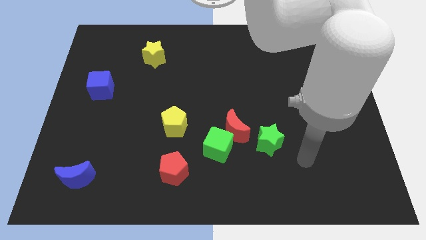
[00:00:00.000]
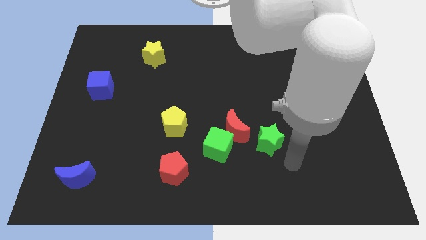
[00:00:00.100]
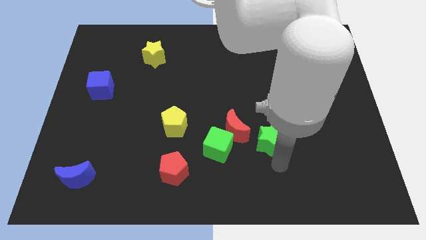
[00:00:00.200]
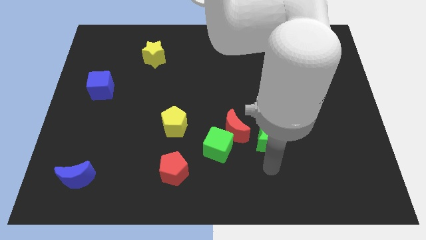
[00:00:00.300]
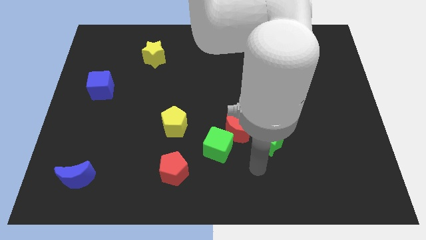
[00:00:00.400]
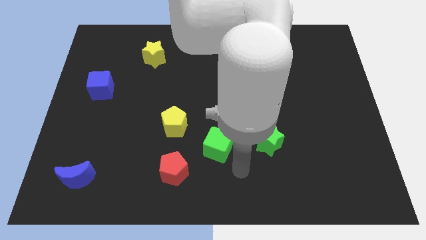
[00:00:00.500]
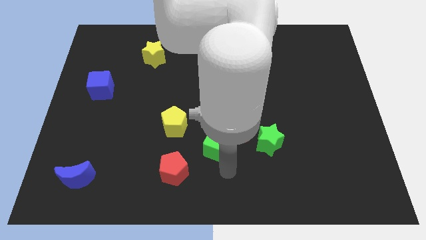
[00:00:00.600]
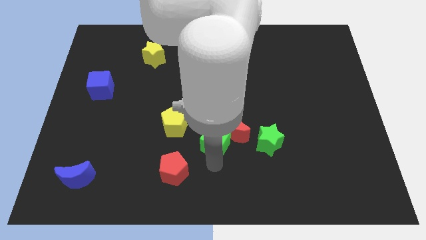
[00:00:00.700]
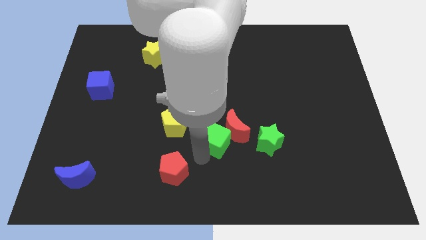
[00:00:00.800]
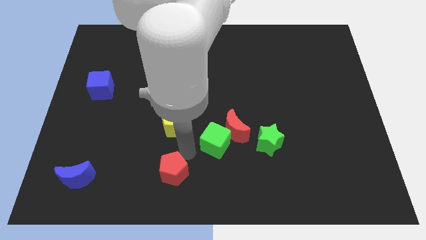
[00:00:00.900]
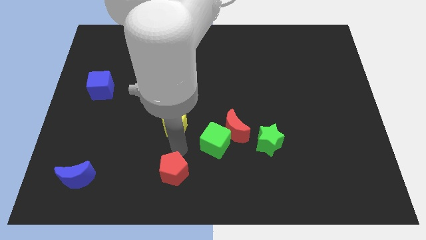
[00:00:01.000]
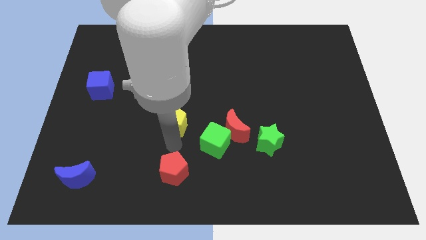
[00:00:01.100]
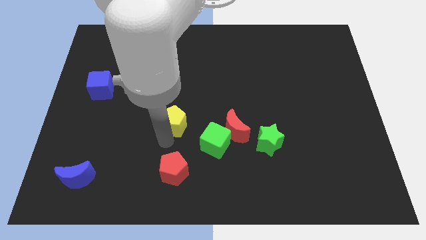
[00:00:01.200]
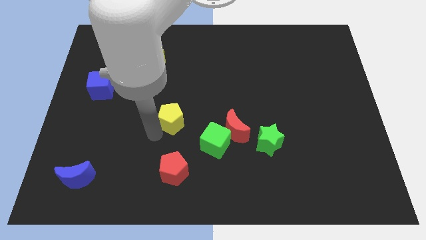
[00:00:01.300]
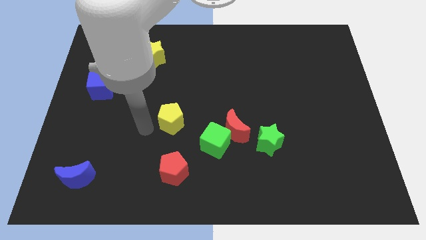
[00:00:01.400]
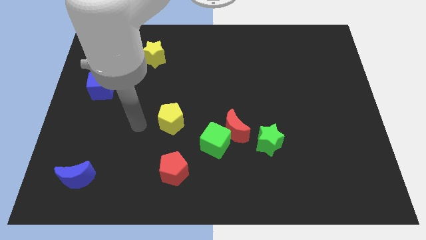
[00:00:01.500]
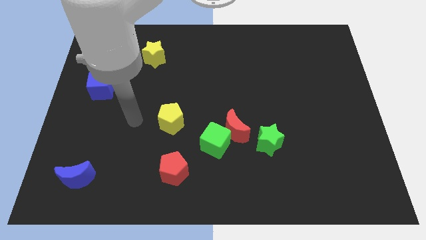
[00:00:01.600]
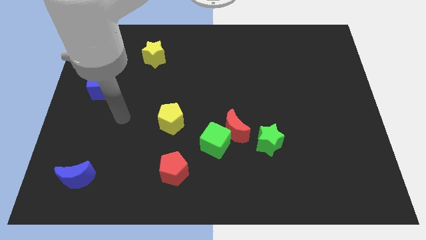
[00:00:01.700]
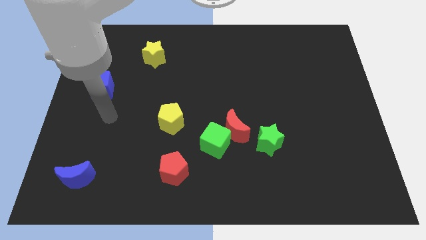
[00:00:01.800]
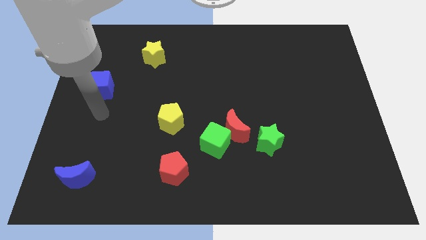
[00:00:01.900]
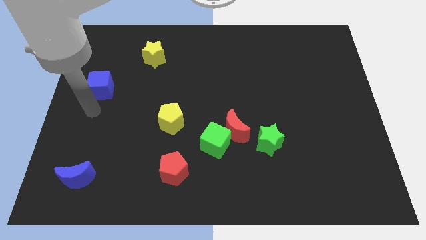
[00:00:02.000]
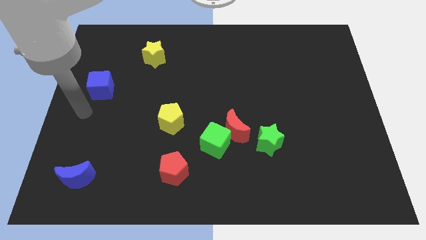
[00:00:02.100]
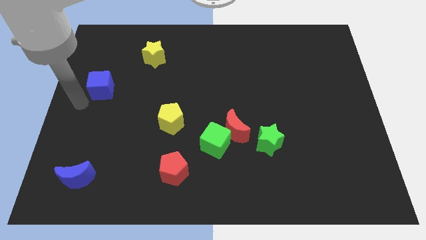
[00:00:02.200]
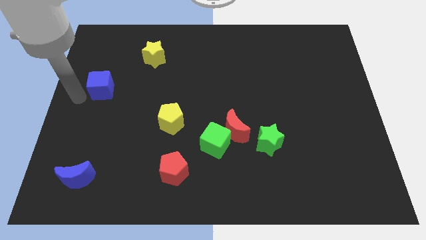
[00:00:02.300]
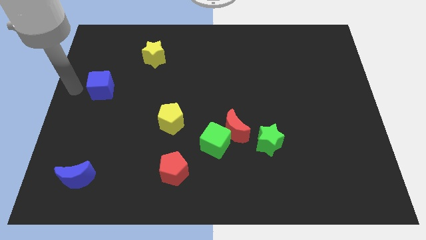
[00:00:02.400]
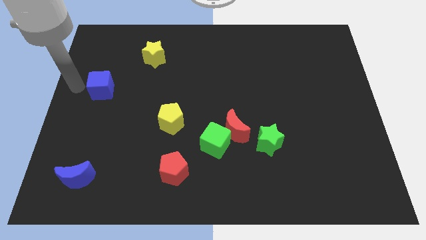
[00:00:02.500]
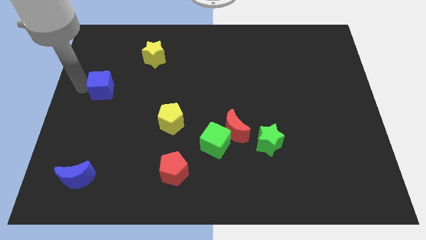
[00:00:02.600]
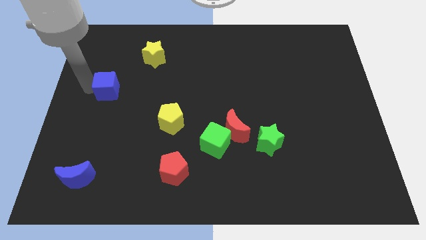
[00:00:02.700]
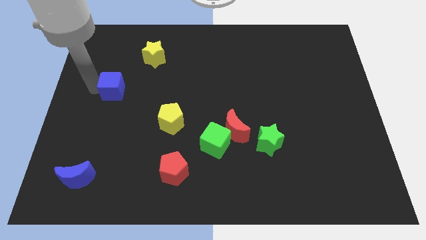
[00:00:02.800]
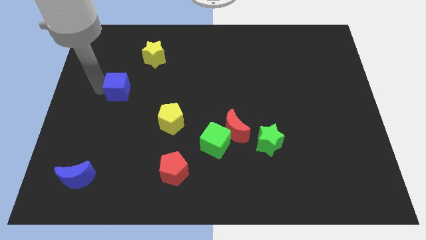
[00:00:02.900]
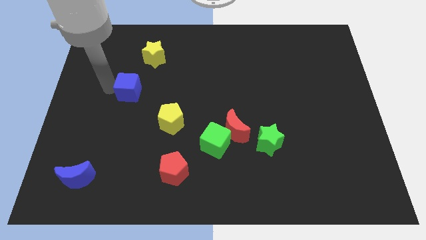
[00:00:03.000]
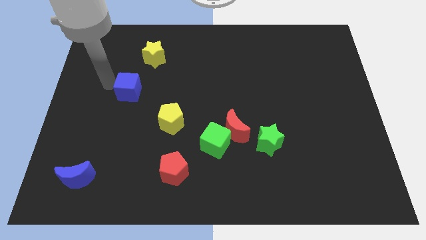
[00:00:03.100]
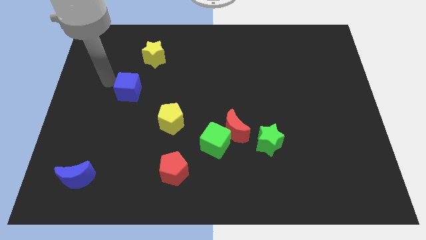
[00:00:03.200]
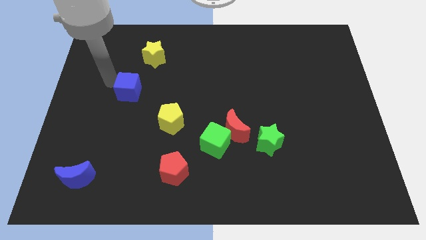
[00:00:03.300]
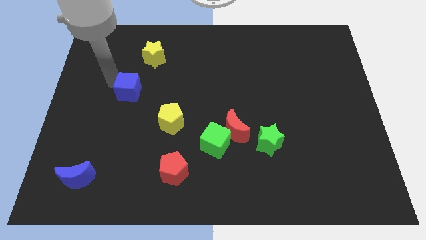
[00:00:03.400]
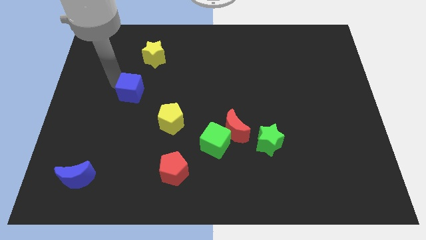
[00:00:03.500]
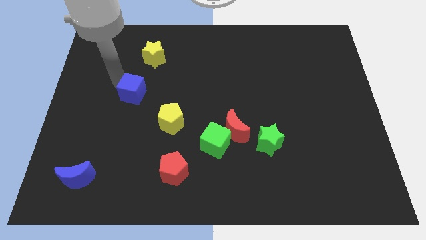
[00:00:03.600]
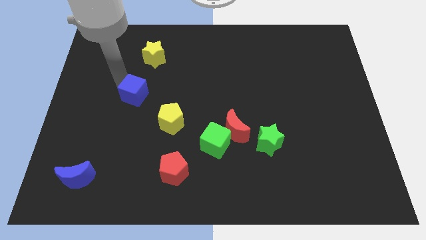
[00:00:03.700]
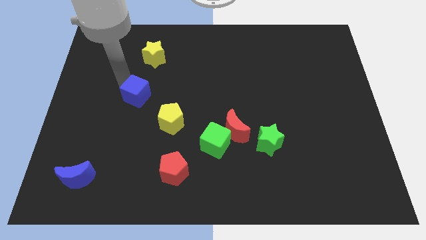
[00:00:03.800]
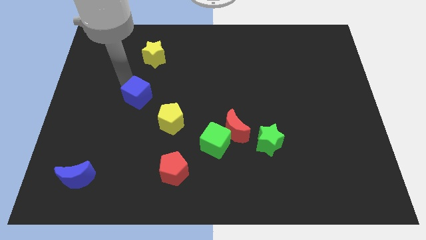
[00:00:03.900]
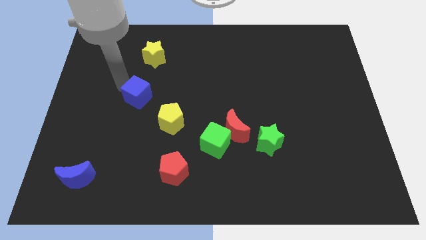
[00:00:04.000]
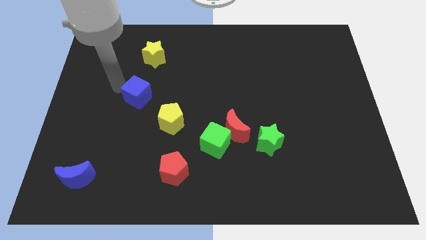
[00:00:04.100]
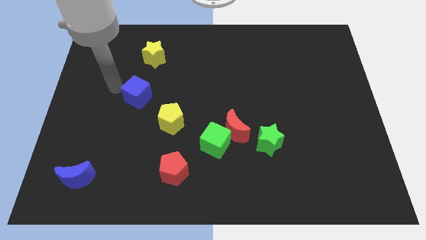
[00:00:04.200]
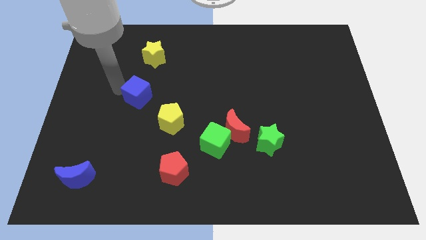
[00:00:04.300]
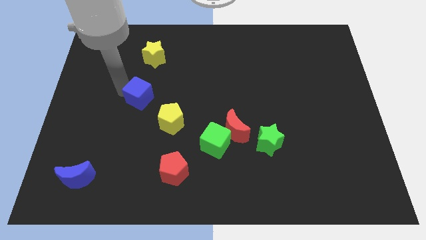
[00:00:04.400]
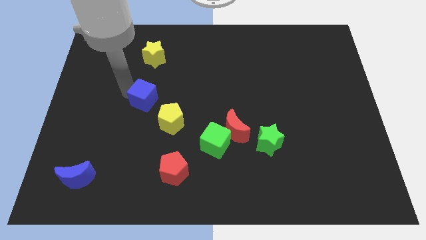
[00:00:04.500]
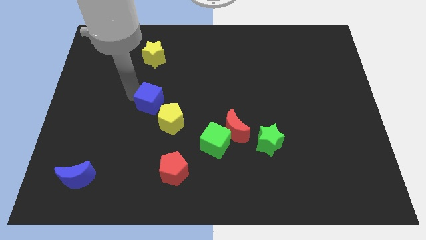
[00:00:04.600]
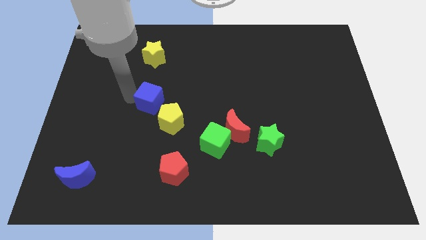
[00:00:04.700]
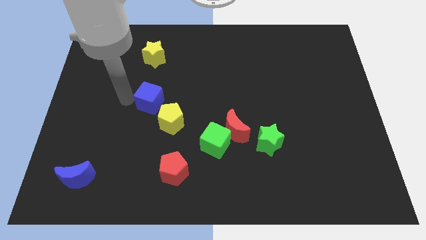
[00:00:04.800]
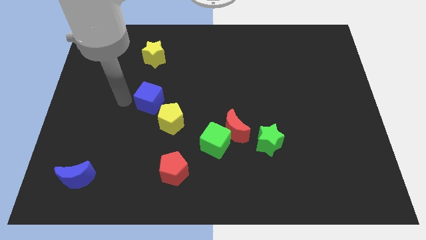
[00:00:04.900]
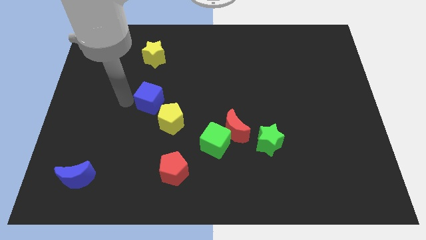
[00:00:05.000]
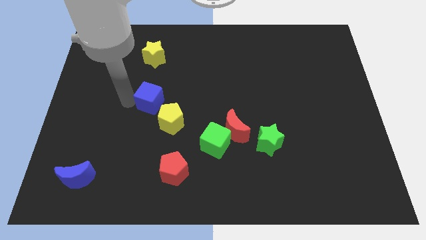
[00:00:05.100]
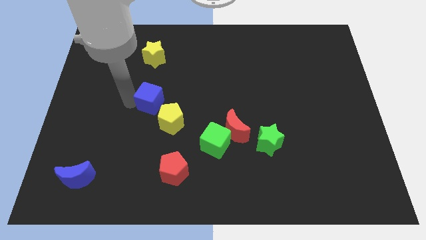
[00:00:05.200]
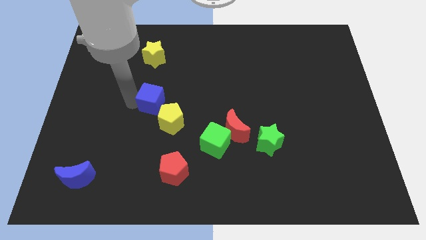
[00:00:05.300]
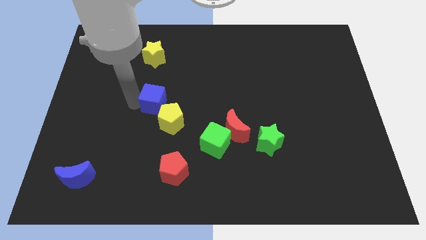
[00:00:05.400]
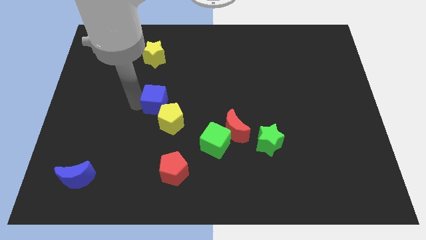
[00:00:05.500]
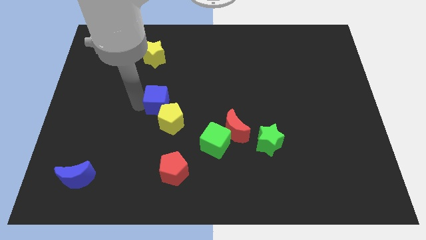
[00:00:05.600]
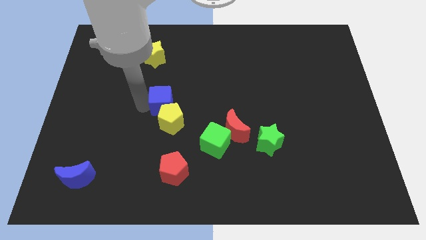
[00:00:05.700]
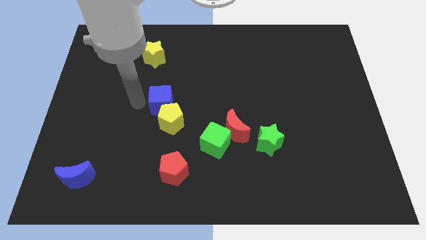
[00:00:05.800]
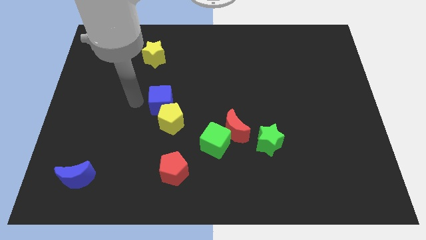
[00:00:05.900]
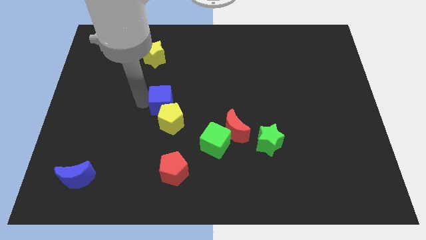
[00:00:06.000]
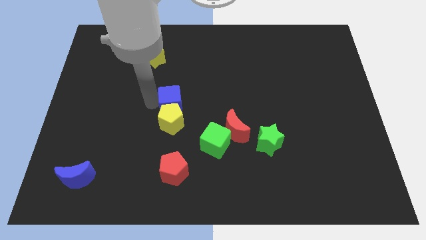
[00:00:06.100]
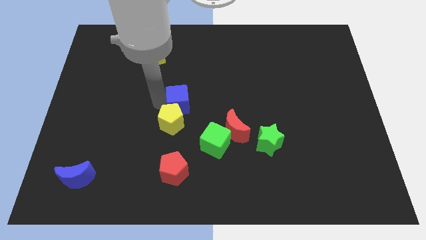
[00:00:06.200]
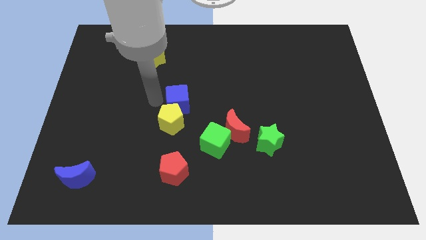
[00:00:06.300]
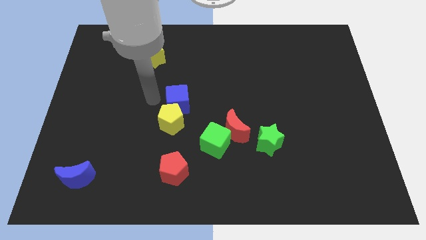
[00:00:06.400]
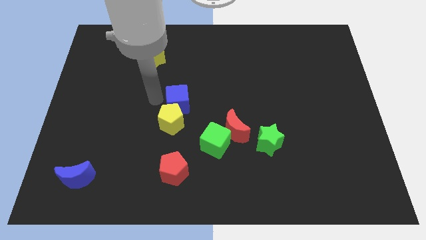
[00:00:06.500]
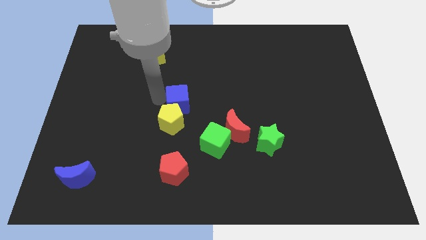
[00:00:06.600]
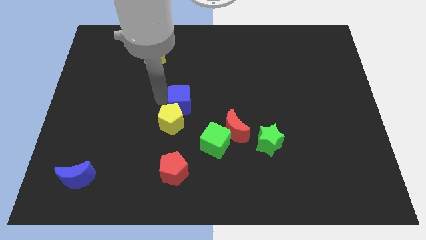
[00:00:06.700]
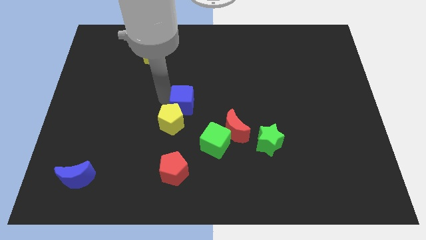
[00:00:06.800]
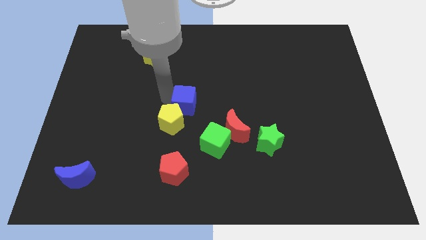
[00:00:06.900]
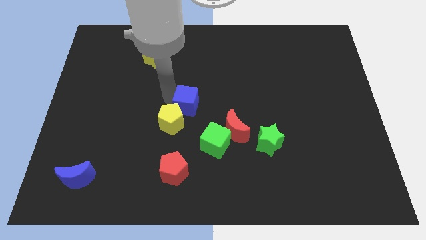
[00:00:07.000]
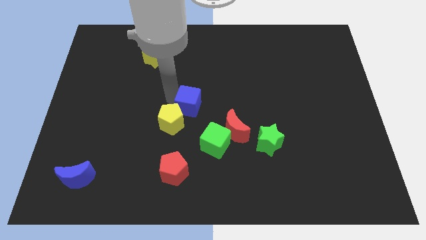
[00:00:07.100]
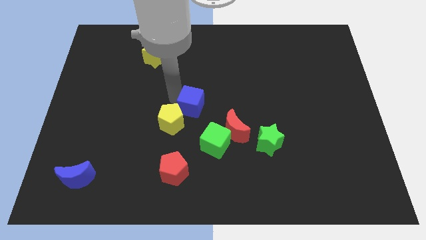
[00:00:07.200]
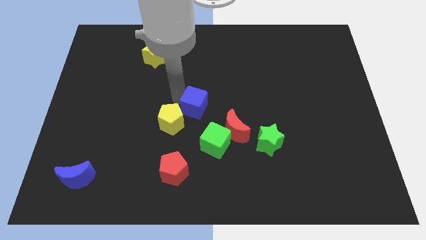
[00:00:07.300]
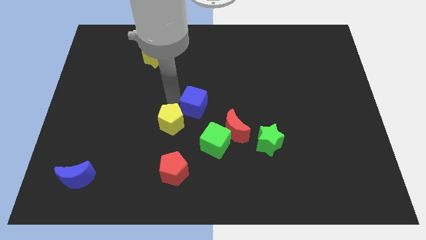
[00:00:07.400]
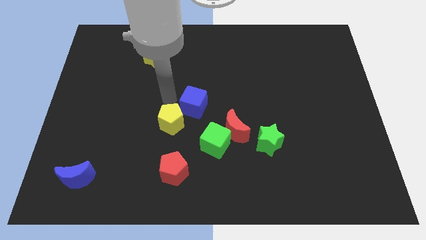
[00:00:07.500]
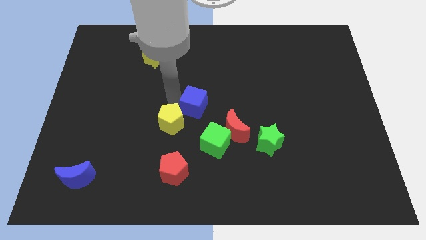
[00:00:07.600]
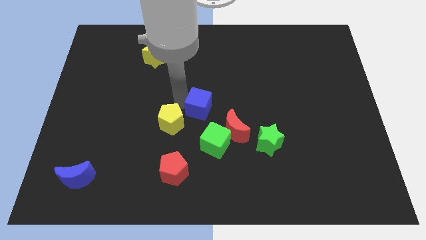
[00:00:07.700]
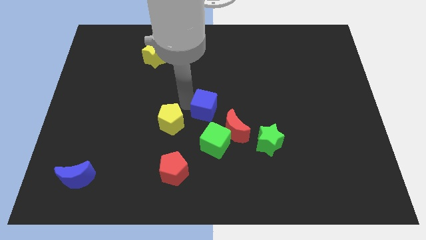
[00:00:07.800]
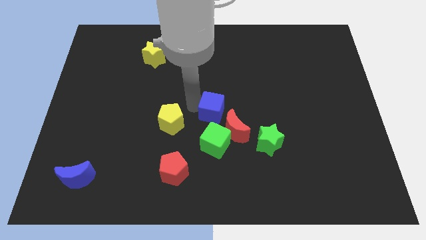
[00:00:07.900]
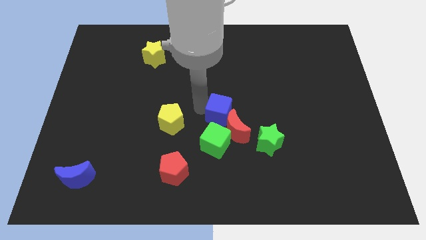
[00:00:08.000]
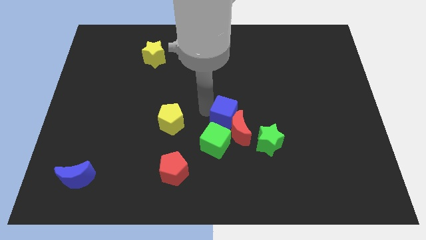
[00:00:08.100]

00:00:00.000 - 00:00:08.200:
move the blue cube to the top right of the green cube
